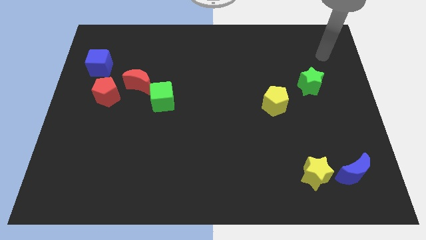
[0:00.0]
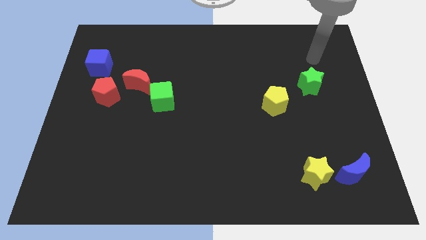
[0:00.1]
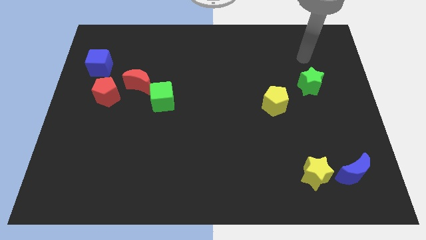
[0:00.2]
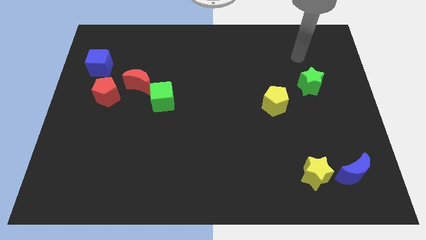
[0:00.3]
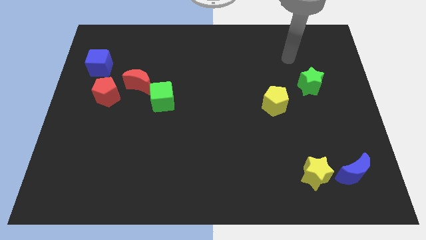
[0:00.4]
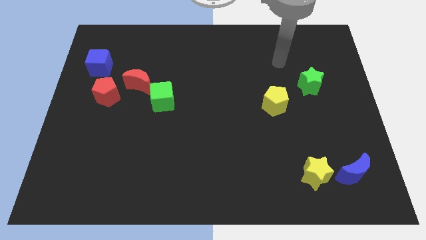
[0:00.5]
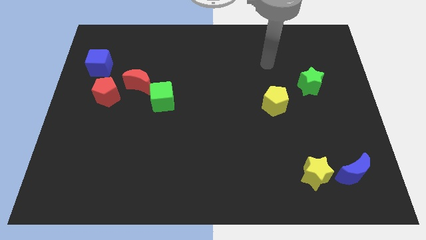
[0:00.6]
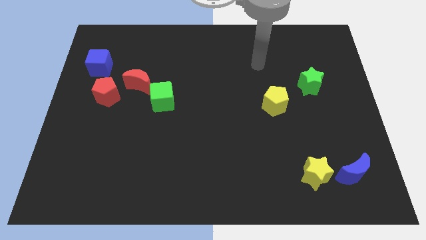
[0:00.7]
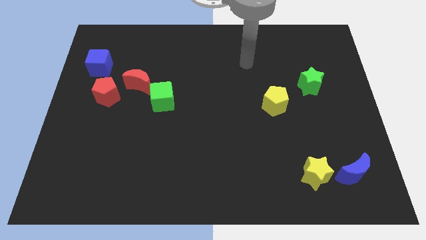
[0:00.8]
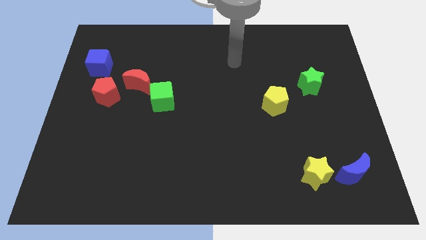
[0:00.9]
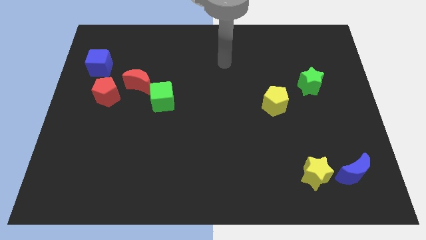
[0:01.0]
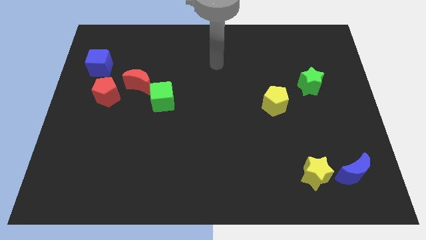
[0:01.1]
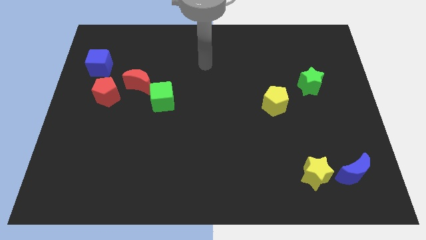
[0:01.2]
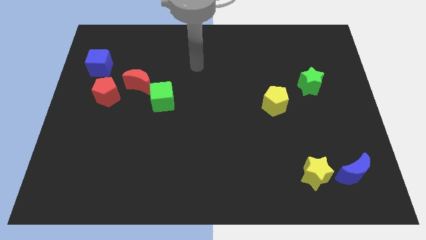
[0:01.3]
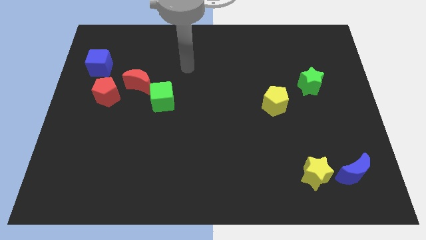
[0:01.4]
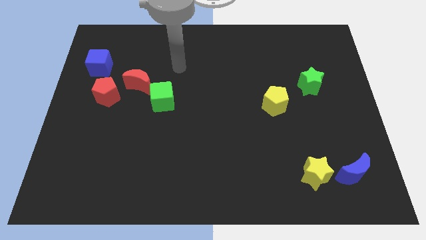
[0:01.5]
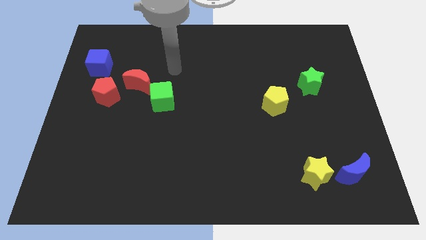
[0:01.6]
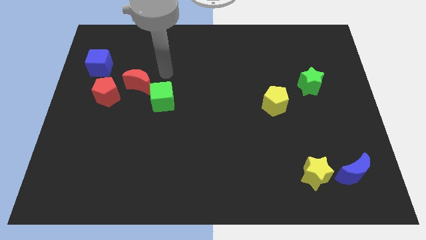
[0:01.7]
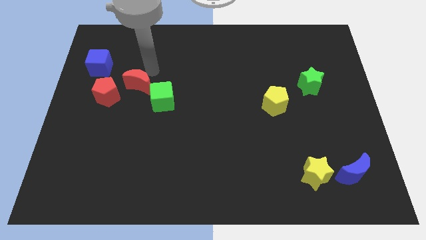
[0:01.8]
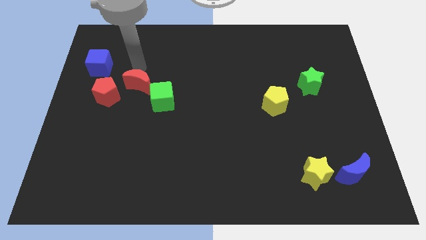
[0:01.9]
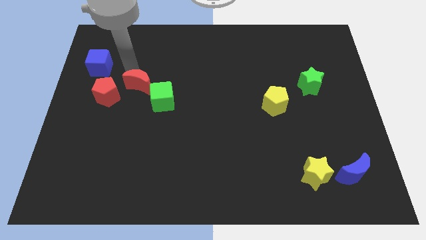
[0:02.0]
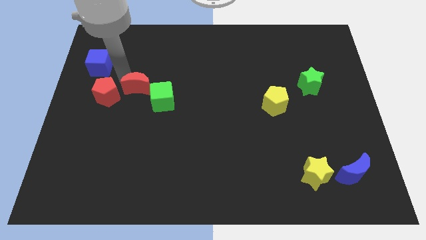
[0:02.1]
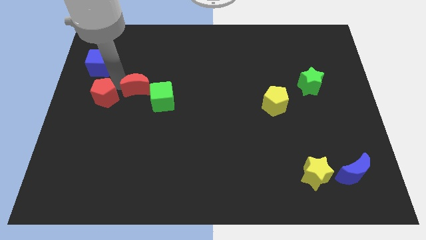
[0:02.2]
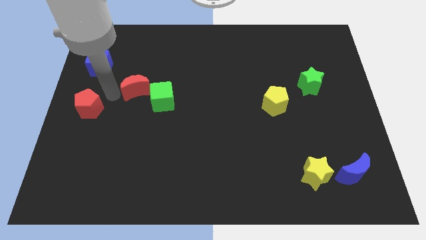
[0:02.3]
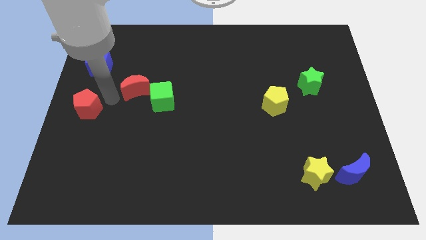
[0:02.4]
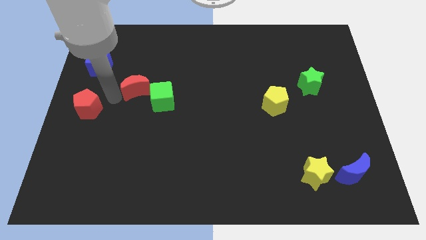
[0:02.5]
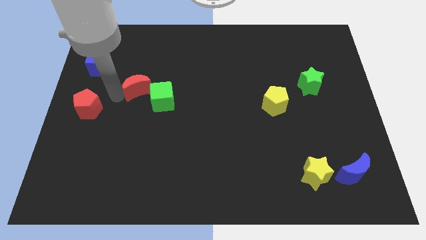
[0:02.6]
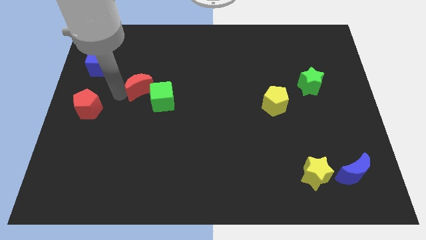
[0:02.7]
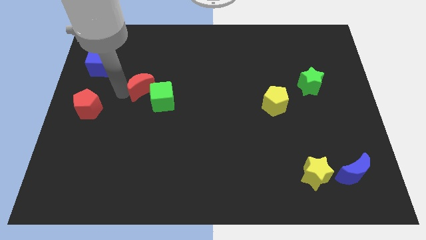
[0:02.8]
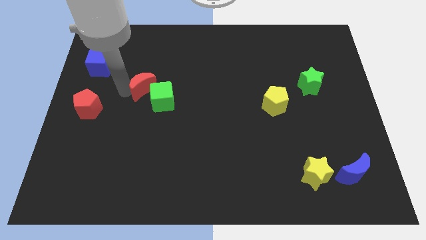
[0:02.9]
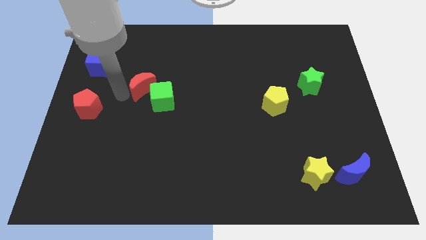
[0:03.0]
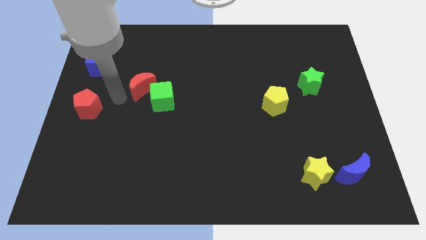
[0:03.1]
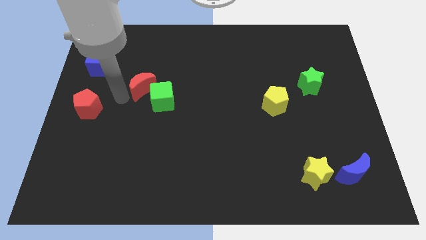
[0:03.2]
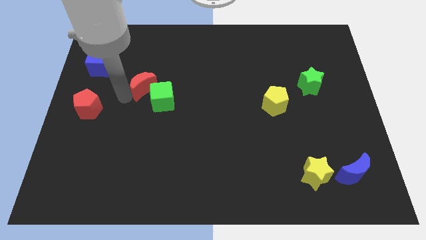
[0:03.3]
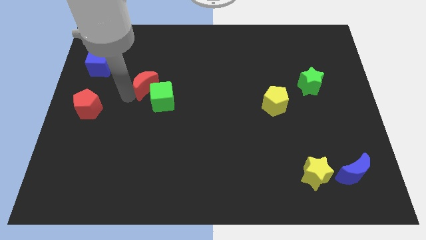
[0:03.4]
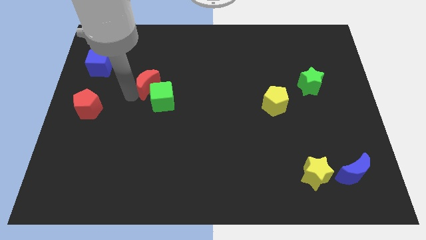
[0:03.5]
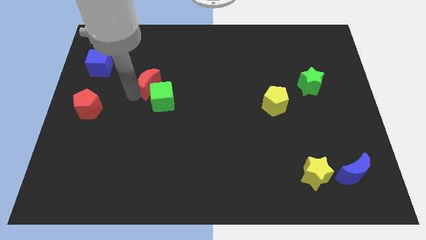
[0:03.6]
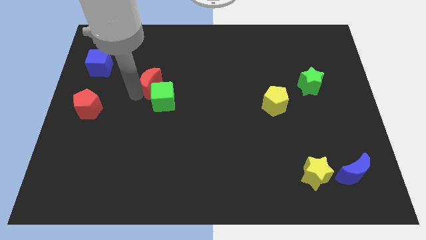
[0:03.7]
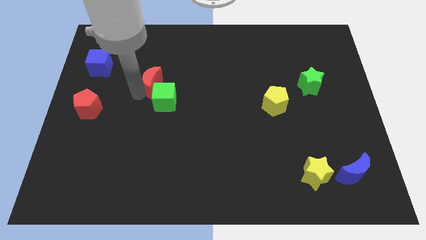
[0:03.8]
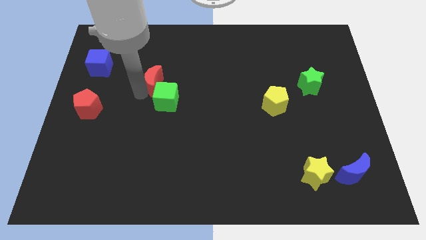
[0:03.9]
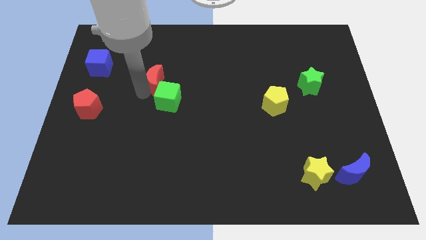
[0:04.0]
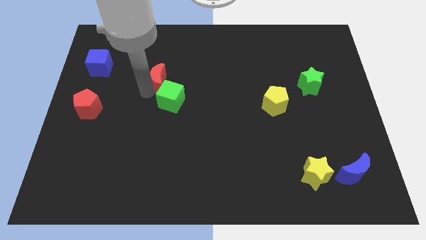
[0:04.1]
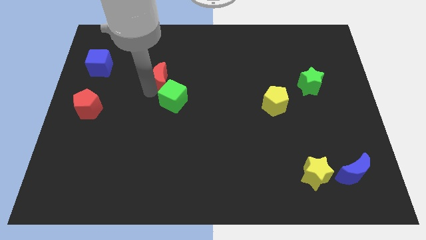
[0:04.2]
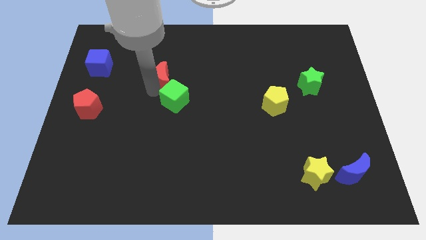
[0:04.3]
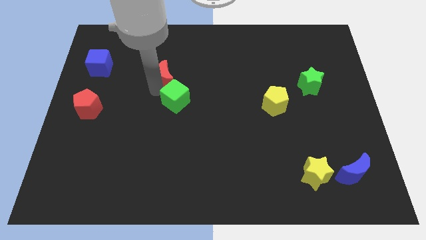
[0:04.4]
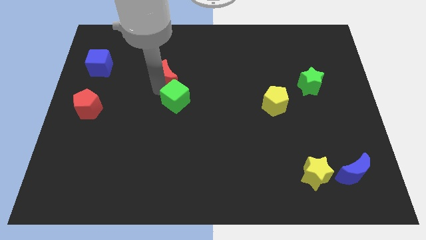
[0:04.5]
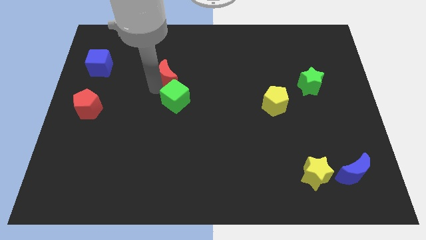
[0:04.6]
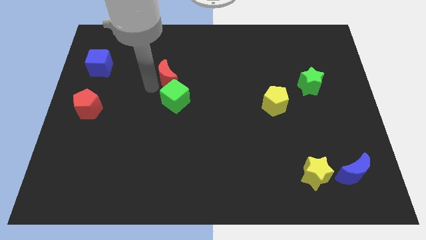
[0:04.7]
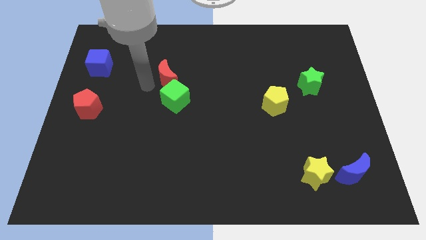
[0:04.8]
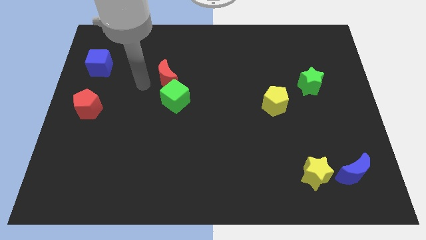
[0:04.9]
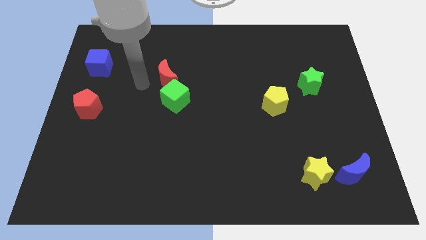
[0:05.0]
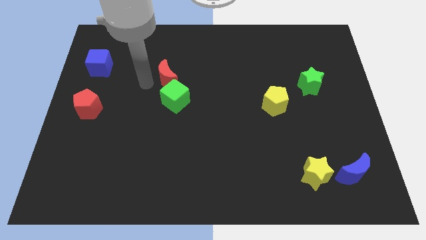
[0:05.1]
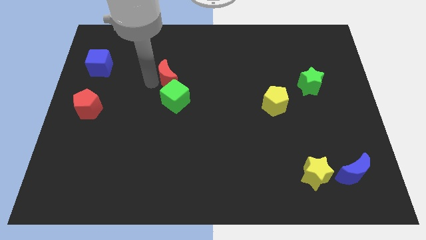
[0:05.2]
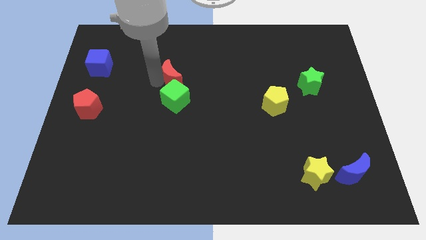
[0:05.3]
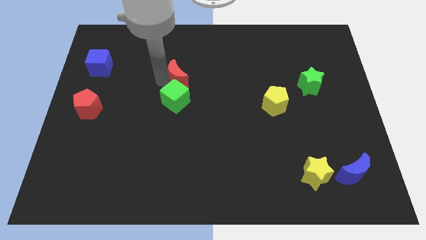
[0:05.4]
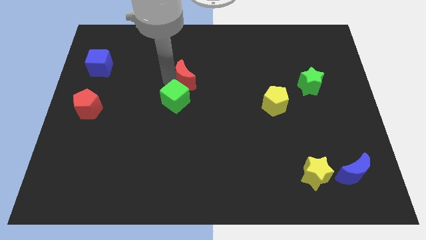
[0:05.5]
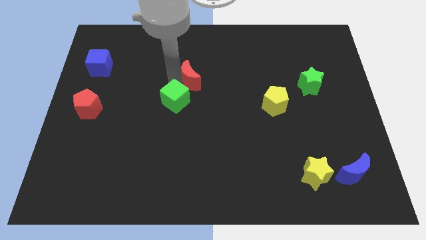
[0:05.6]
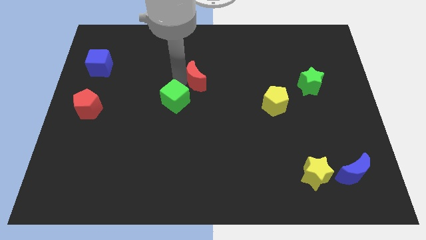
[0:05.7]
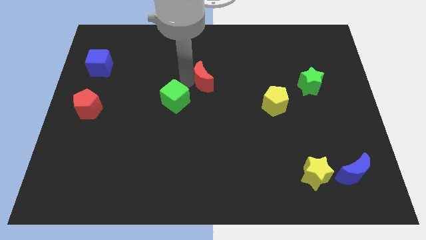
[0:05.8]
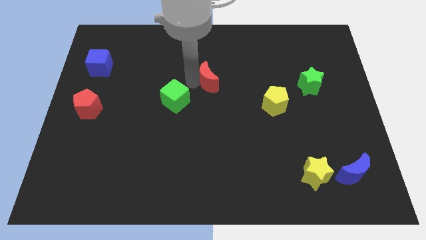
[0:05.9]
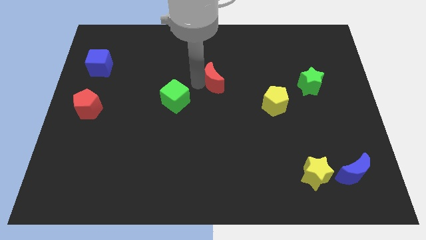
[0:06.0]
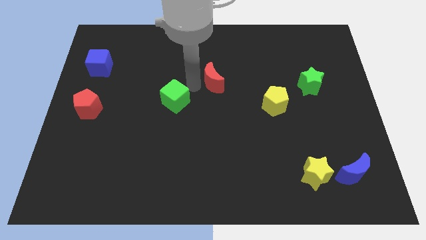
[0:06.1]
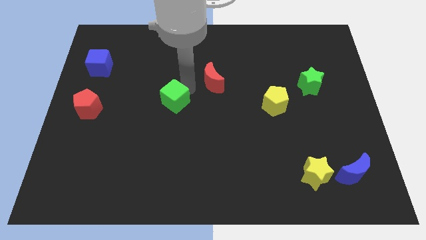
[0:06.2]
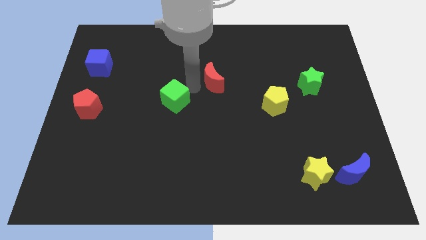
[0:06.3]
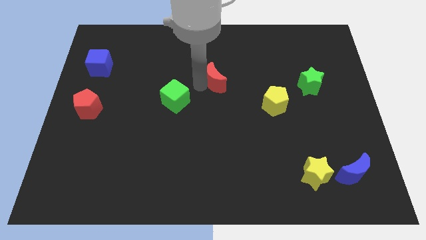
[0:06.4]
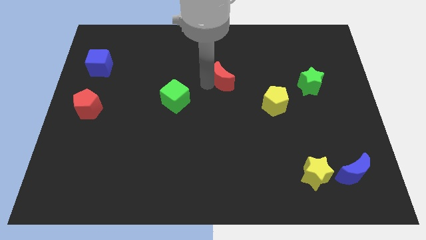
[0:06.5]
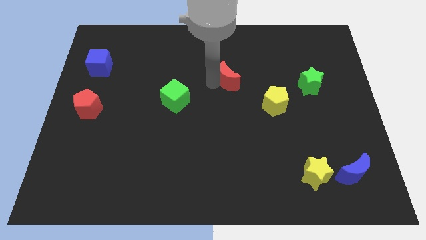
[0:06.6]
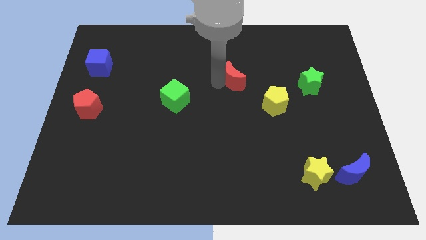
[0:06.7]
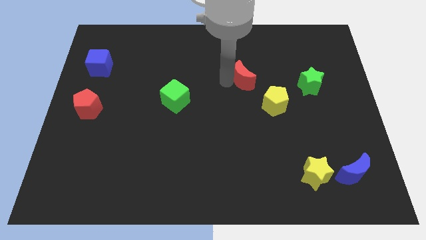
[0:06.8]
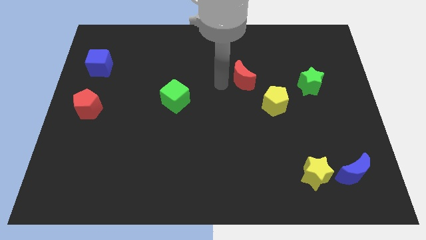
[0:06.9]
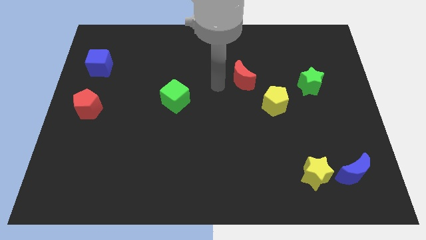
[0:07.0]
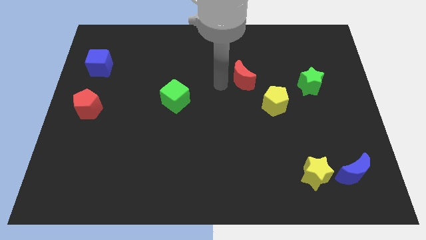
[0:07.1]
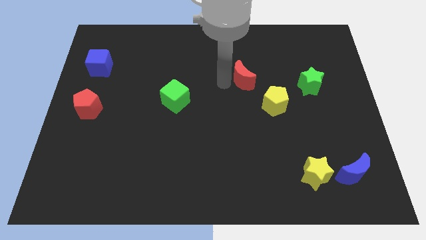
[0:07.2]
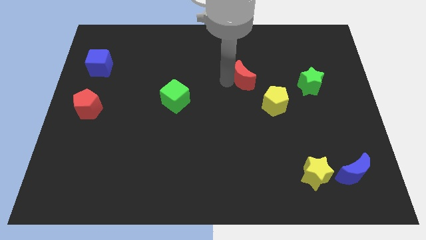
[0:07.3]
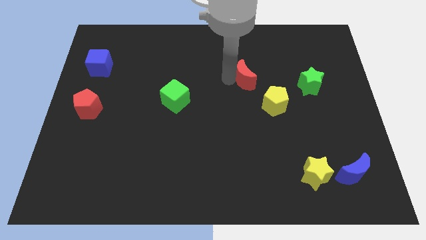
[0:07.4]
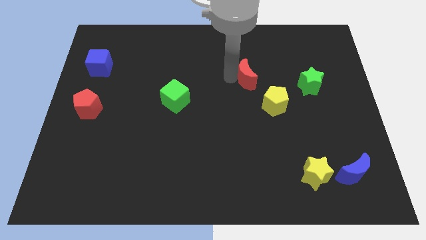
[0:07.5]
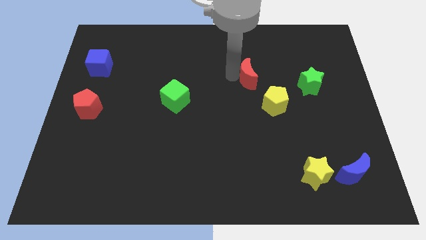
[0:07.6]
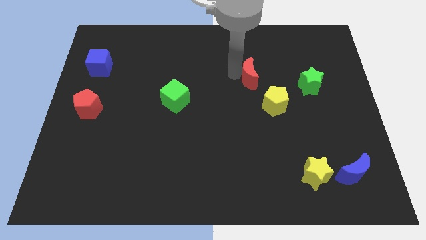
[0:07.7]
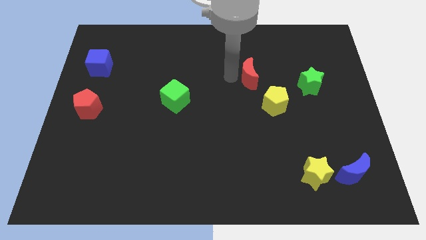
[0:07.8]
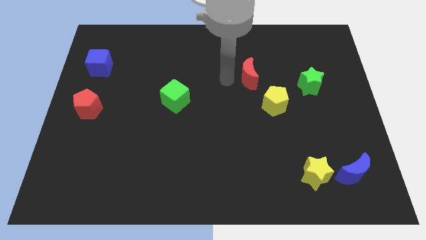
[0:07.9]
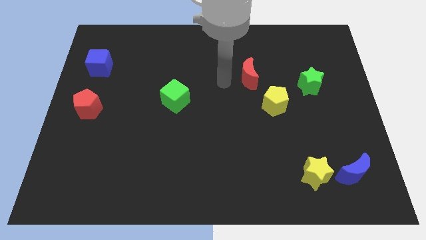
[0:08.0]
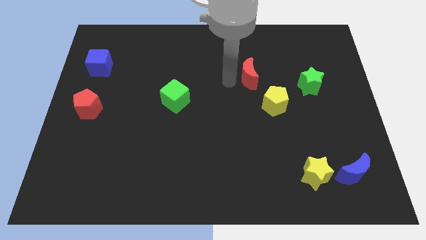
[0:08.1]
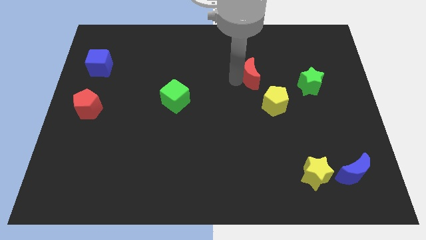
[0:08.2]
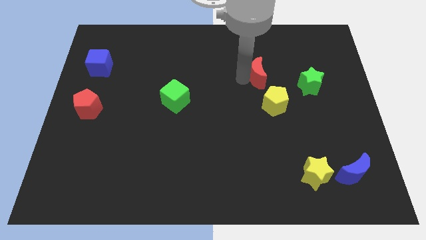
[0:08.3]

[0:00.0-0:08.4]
push the red moon to the top side of the yellow pentagon

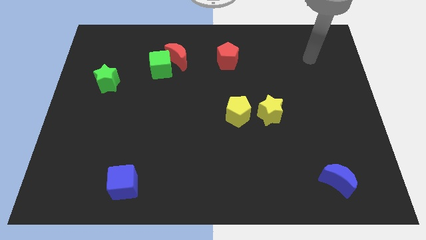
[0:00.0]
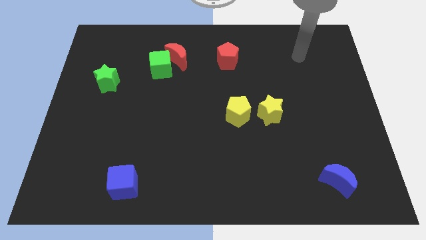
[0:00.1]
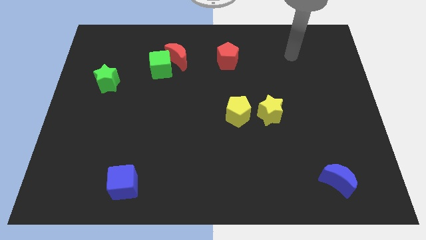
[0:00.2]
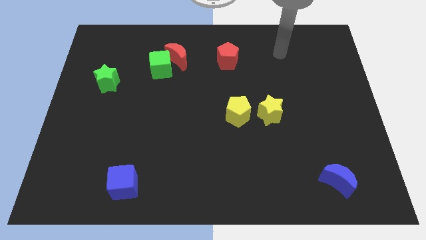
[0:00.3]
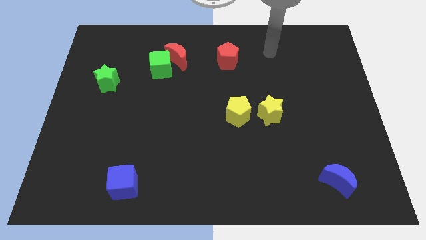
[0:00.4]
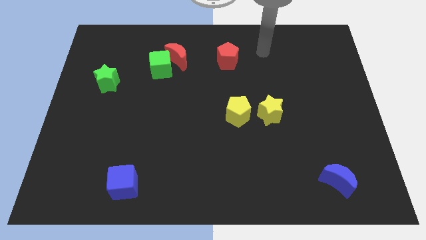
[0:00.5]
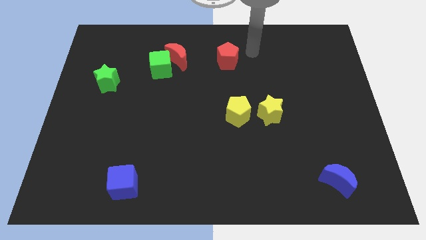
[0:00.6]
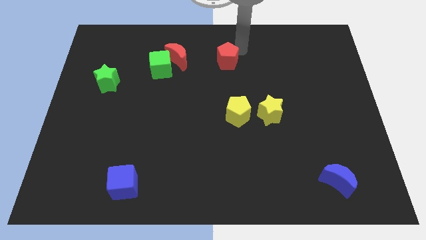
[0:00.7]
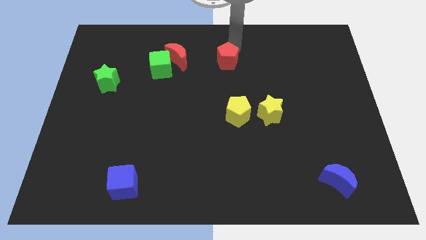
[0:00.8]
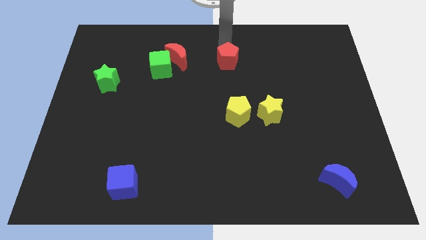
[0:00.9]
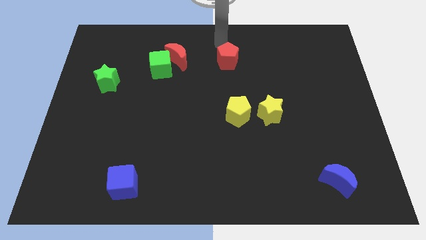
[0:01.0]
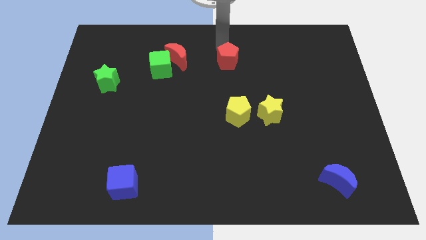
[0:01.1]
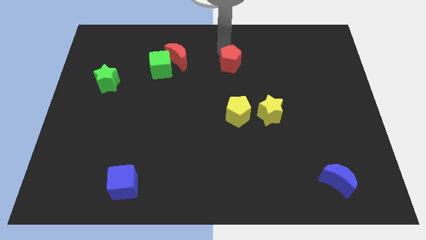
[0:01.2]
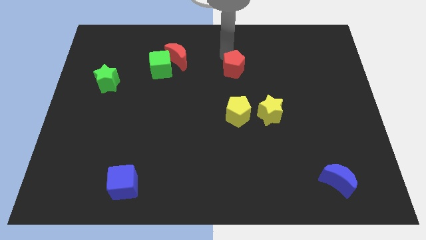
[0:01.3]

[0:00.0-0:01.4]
slide the red pentagon above the yellow pentagon
